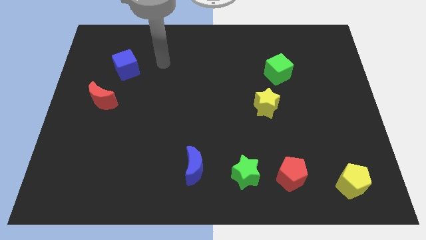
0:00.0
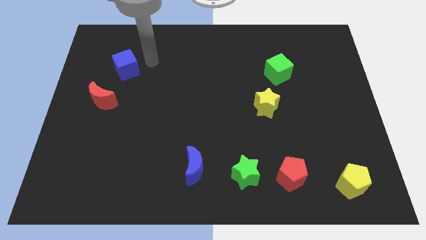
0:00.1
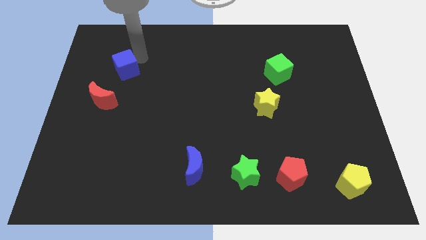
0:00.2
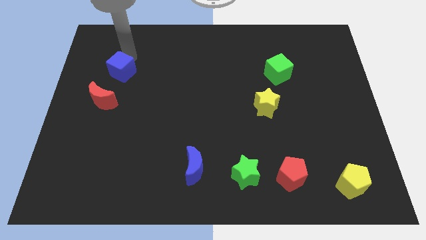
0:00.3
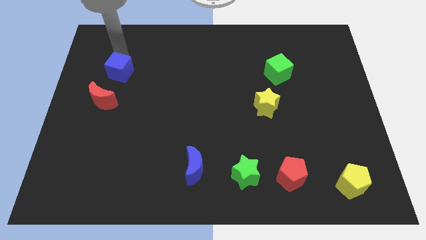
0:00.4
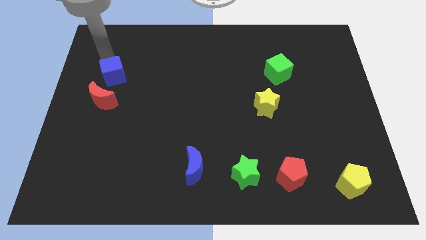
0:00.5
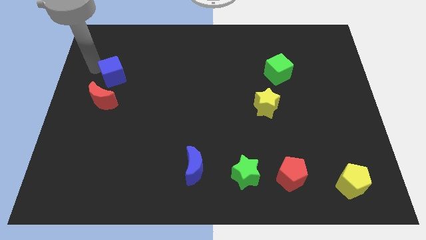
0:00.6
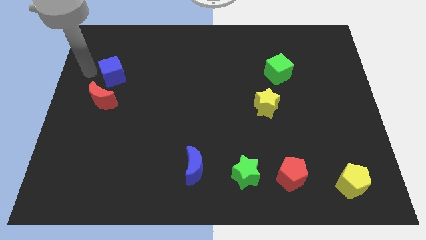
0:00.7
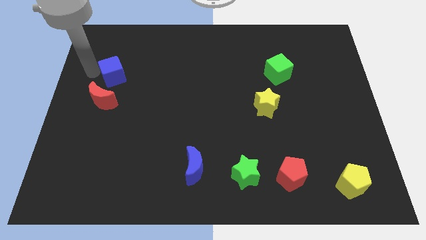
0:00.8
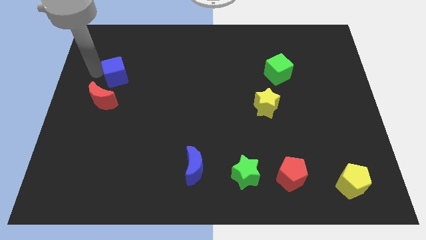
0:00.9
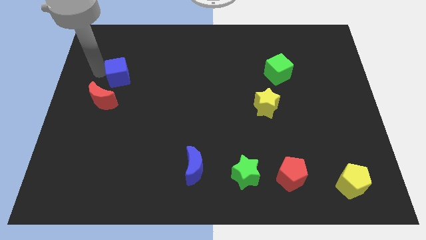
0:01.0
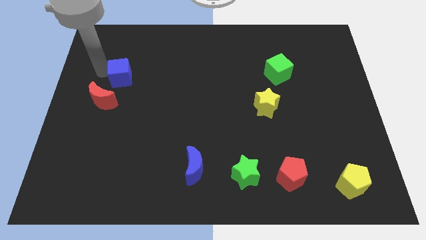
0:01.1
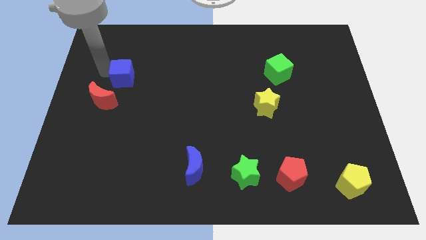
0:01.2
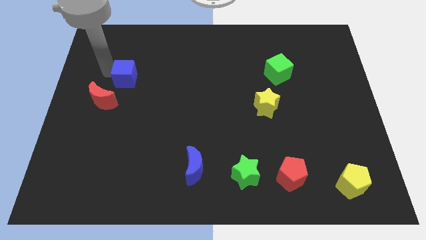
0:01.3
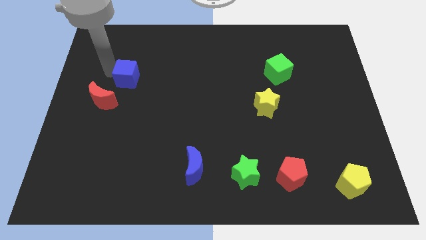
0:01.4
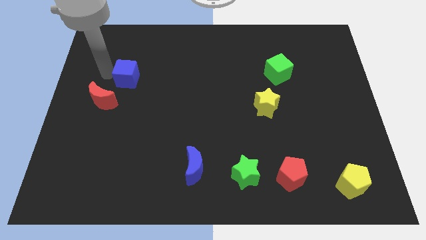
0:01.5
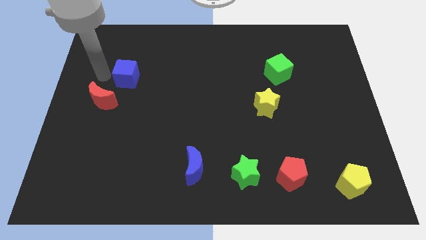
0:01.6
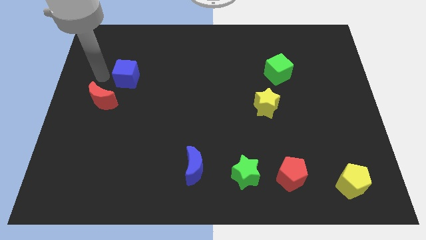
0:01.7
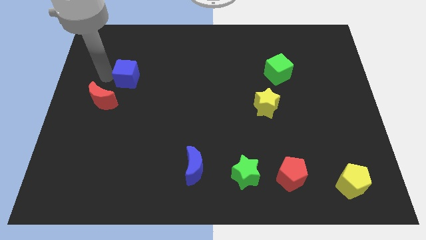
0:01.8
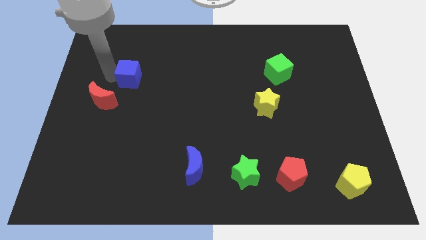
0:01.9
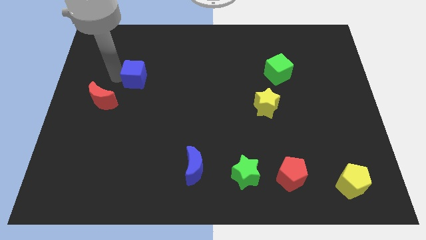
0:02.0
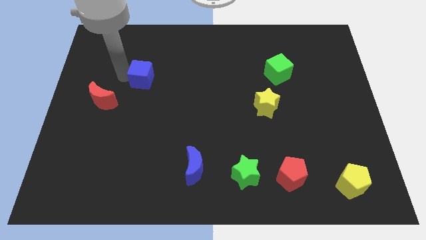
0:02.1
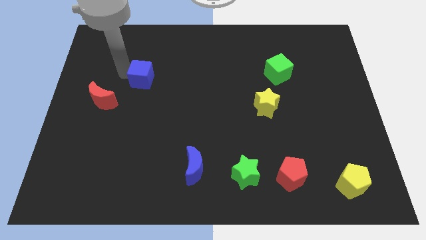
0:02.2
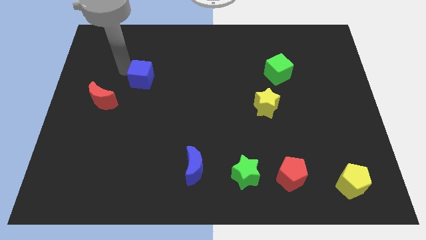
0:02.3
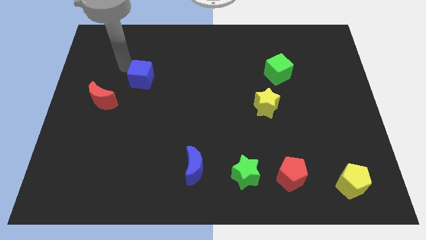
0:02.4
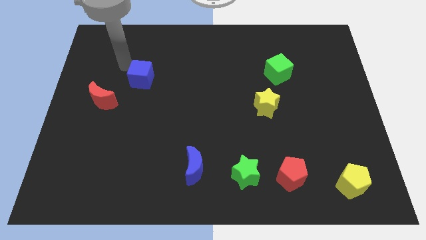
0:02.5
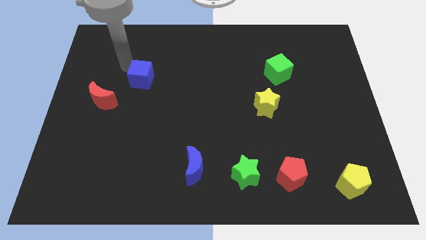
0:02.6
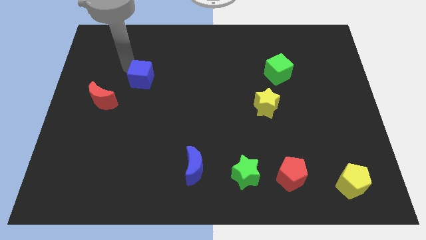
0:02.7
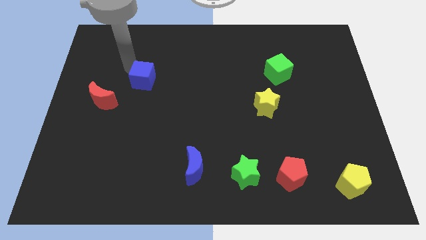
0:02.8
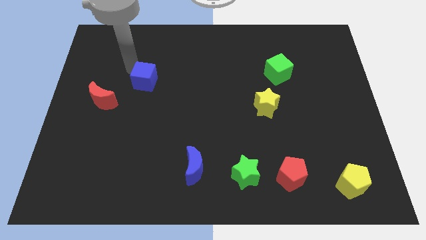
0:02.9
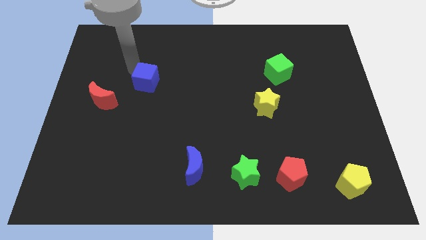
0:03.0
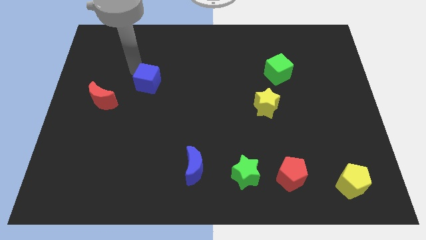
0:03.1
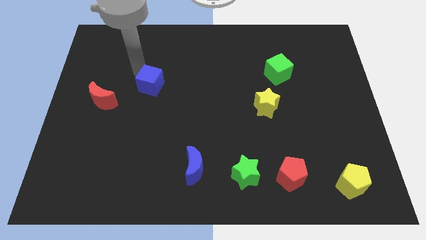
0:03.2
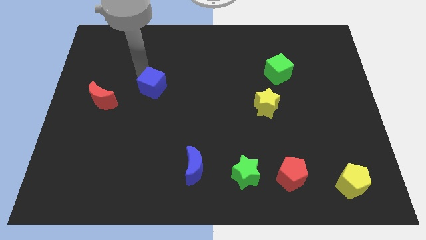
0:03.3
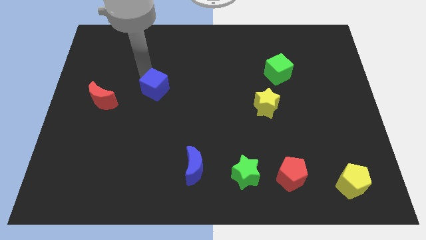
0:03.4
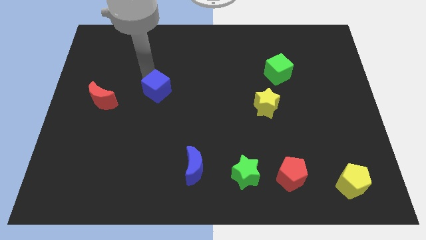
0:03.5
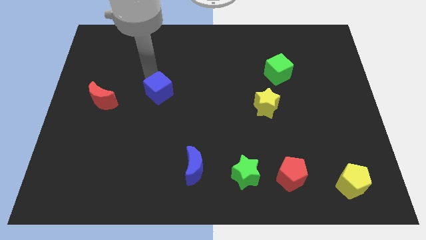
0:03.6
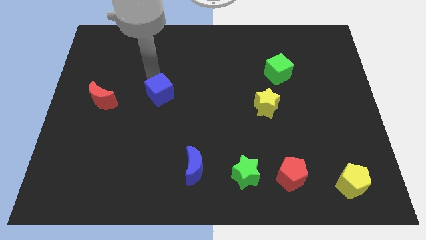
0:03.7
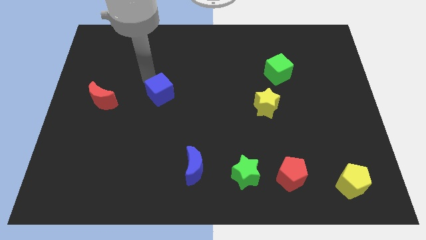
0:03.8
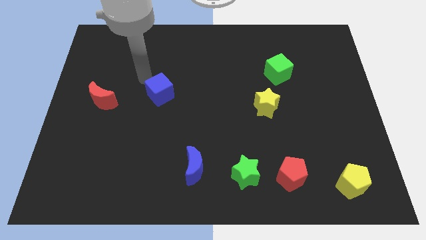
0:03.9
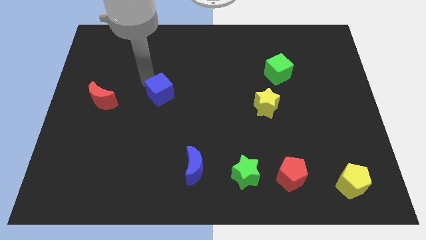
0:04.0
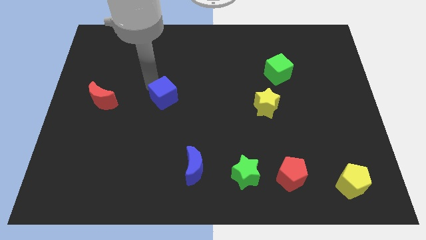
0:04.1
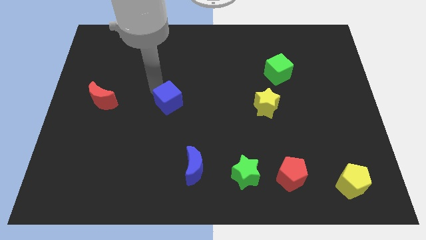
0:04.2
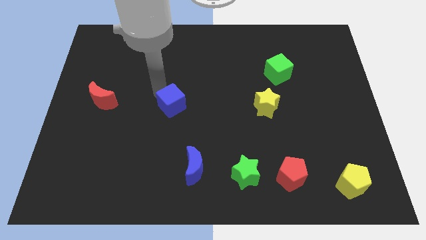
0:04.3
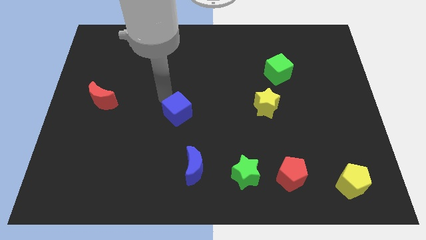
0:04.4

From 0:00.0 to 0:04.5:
slide the blue cube downwards and right diagonally

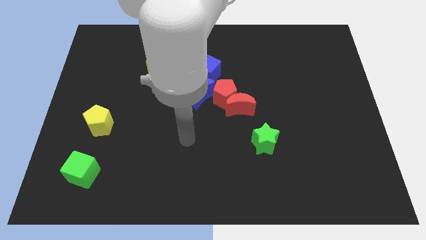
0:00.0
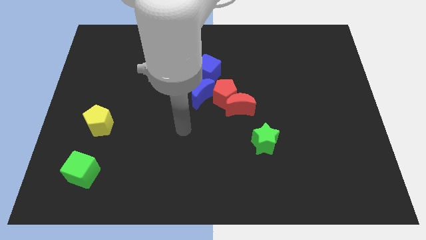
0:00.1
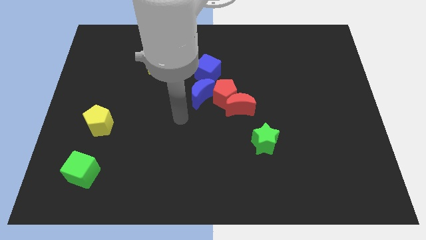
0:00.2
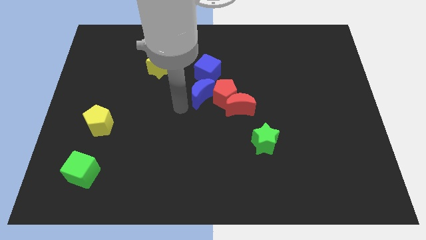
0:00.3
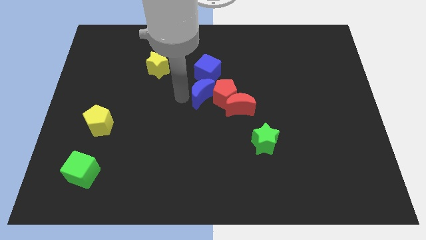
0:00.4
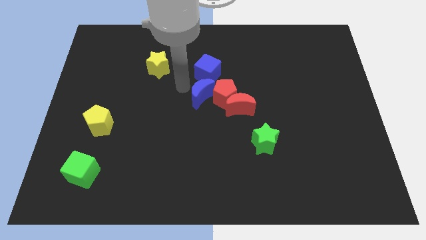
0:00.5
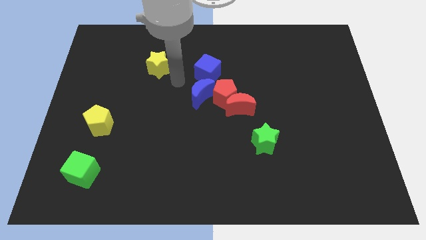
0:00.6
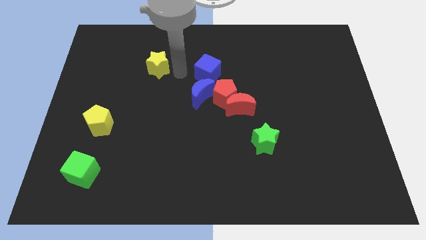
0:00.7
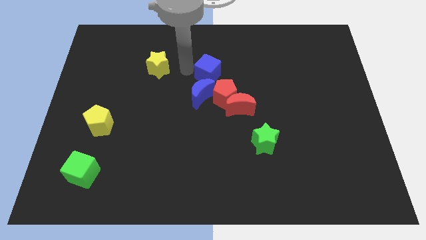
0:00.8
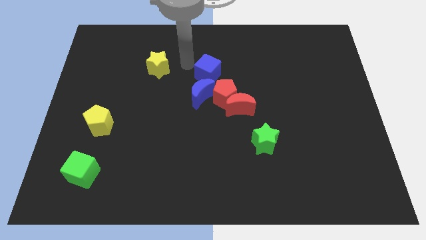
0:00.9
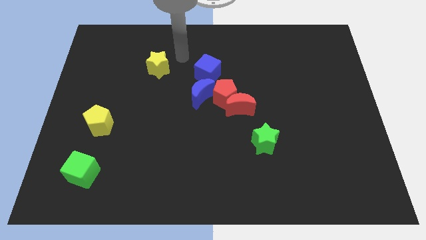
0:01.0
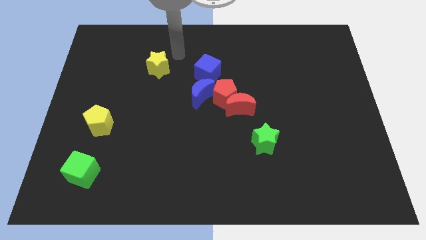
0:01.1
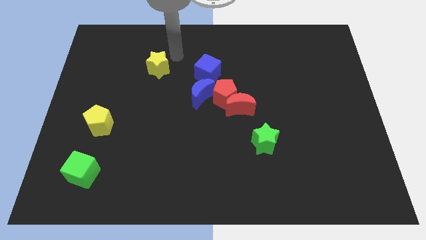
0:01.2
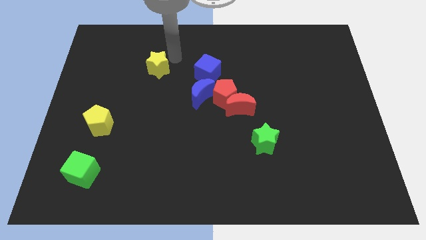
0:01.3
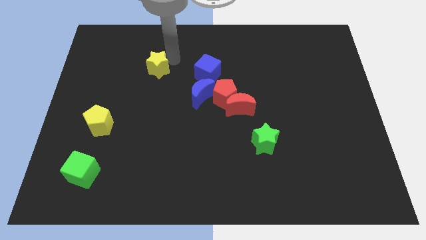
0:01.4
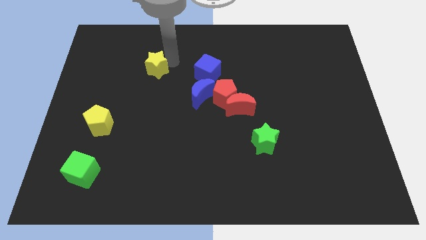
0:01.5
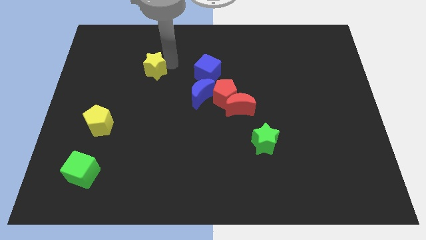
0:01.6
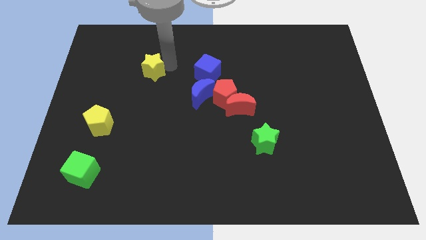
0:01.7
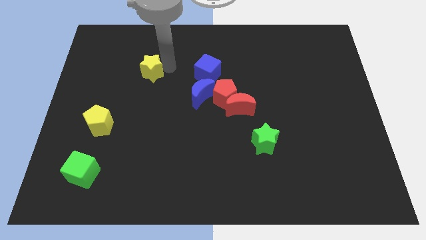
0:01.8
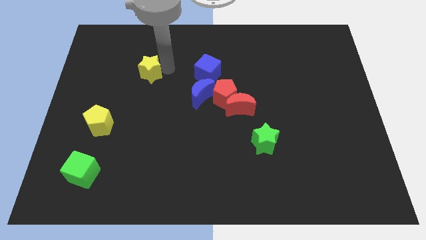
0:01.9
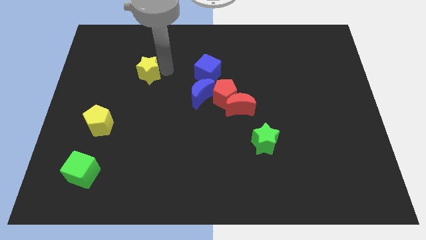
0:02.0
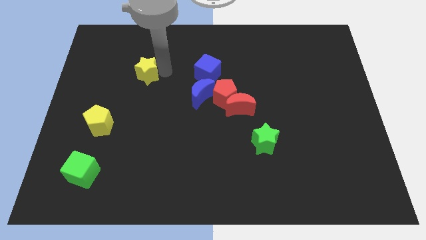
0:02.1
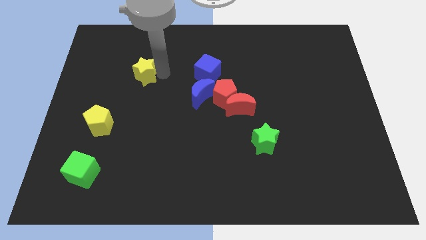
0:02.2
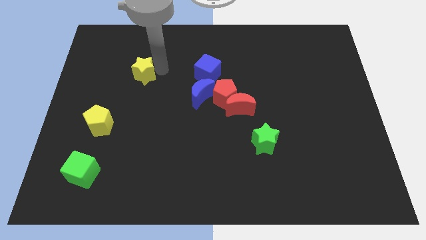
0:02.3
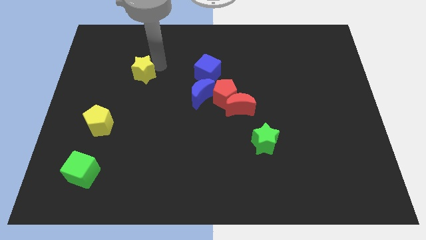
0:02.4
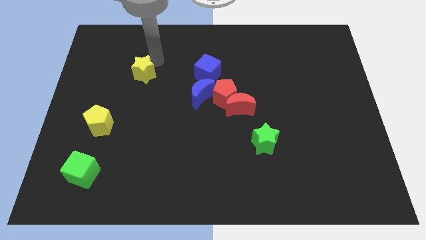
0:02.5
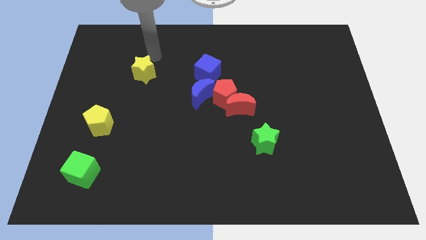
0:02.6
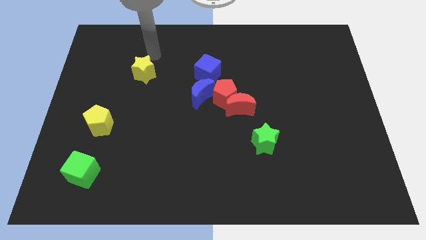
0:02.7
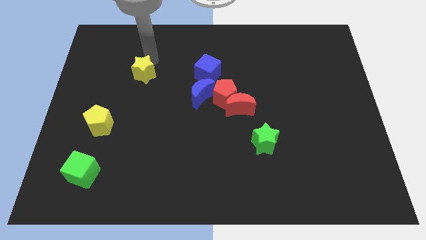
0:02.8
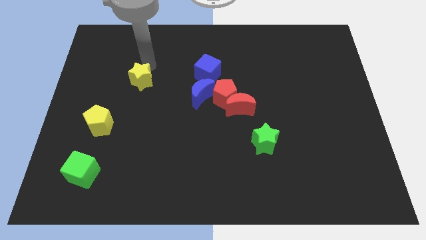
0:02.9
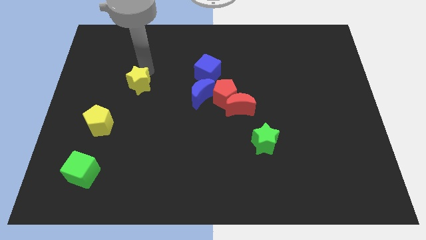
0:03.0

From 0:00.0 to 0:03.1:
move the yellow star somewhat diagonally down and to the left

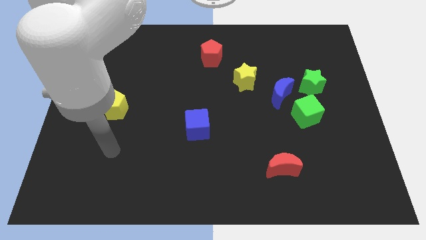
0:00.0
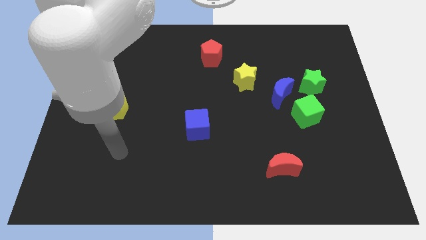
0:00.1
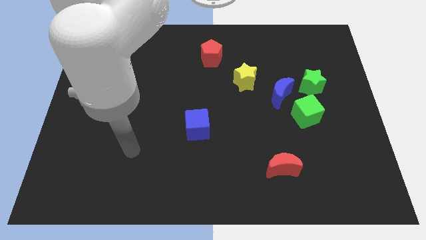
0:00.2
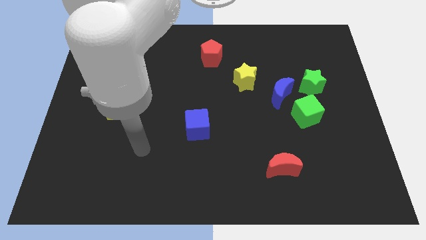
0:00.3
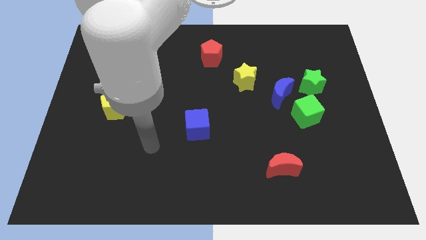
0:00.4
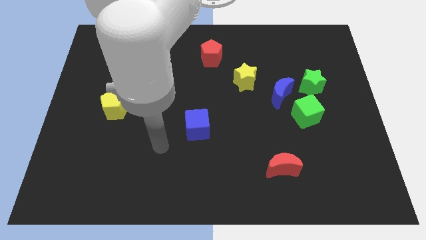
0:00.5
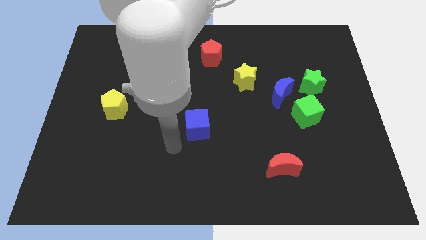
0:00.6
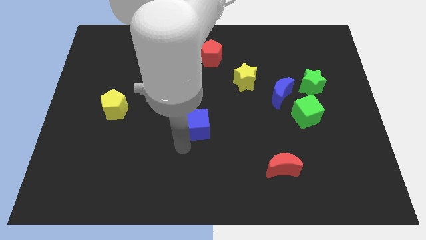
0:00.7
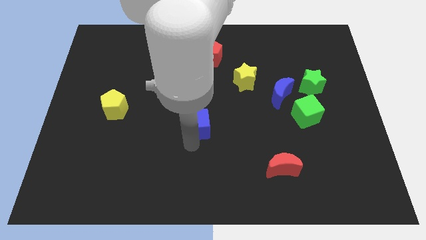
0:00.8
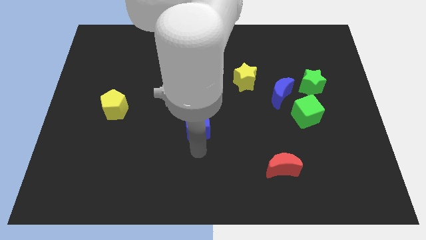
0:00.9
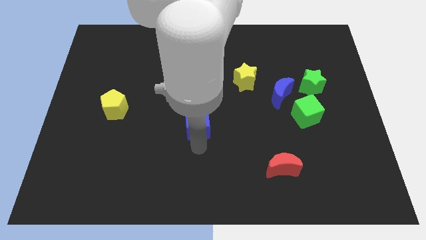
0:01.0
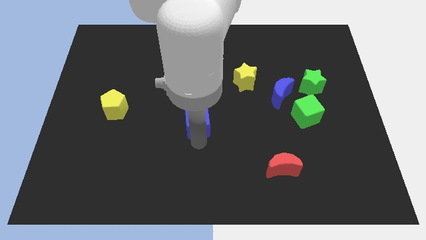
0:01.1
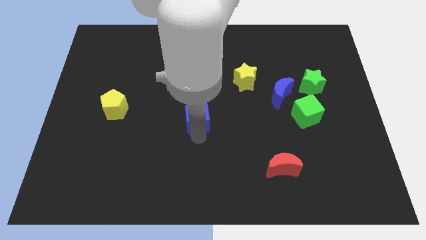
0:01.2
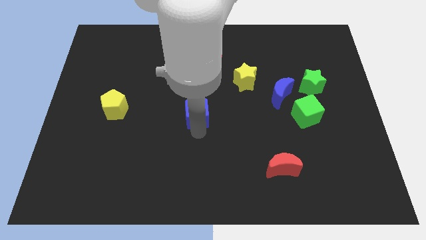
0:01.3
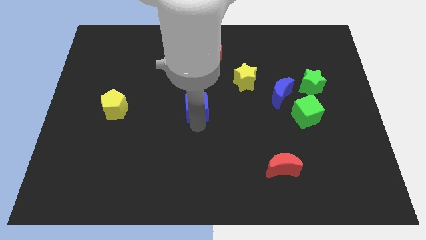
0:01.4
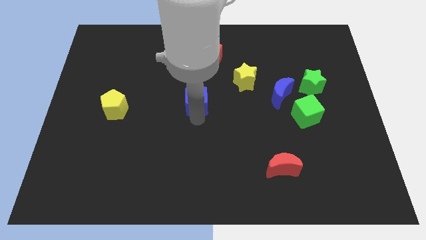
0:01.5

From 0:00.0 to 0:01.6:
slide the blue cube upwards somewhat
